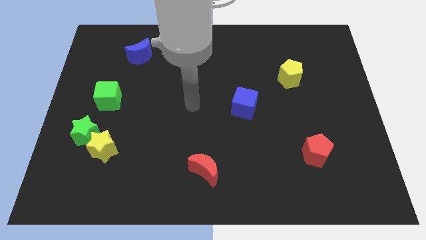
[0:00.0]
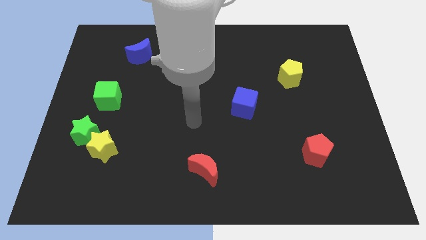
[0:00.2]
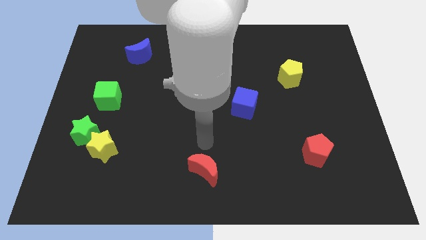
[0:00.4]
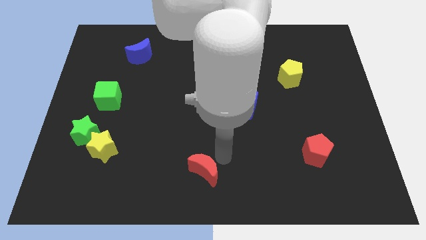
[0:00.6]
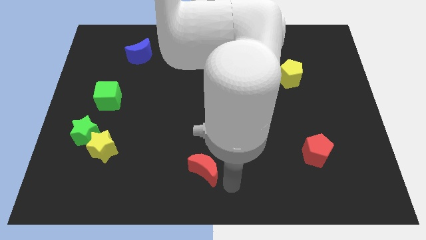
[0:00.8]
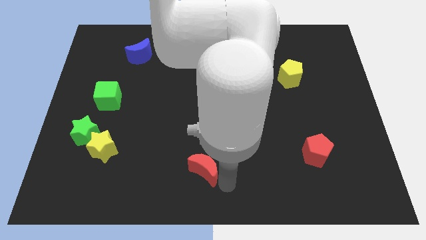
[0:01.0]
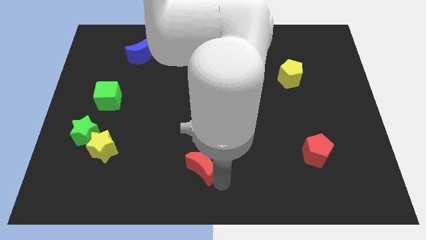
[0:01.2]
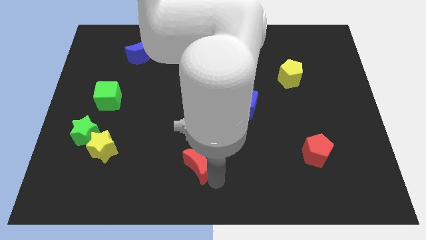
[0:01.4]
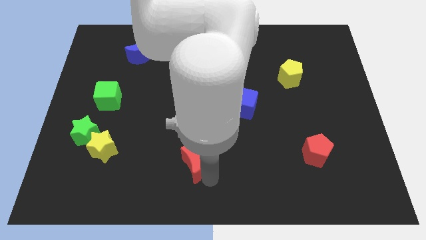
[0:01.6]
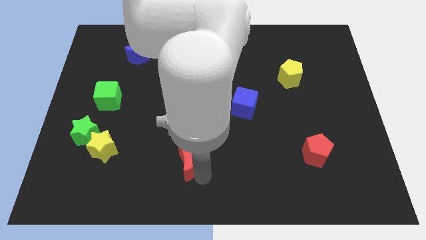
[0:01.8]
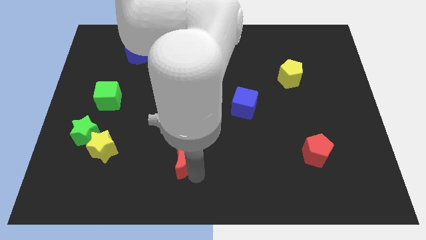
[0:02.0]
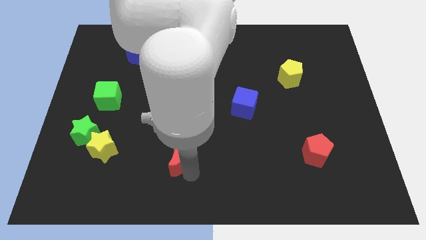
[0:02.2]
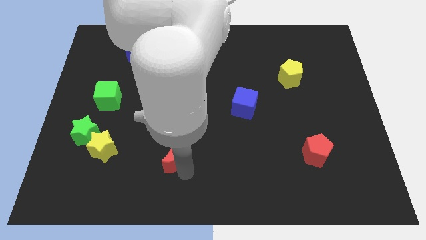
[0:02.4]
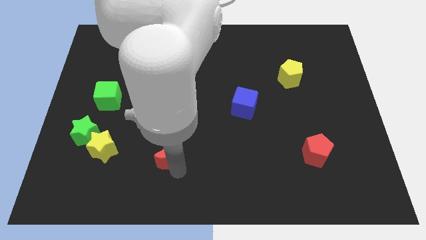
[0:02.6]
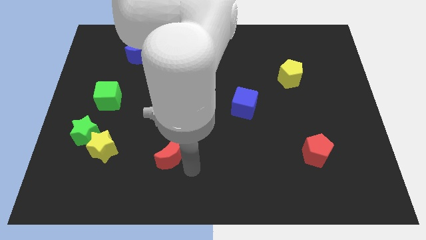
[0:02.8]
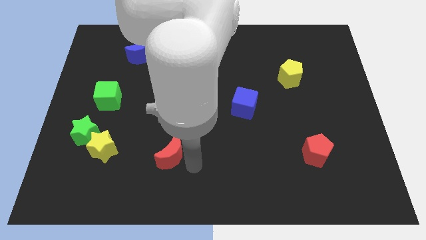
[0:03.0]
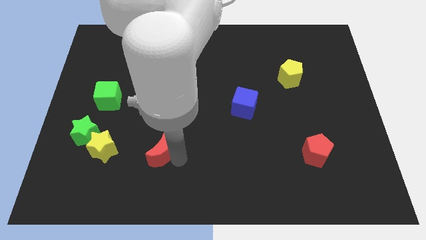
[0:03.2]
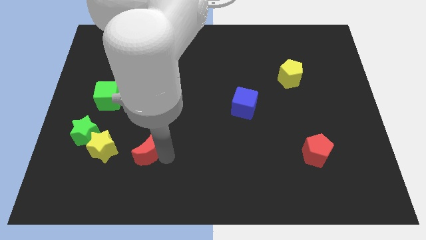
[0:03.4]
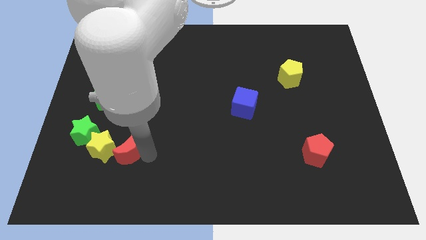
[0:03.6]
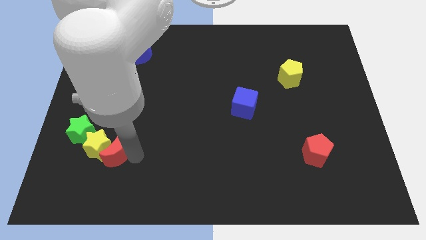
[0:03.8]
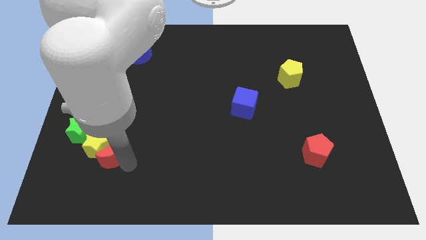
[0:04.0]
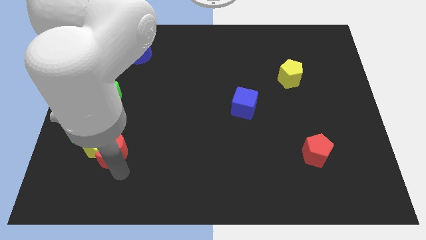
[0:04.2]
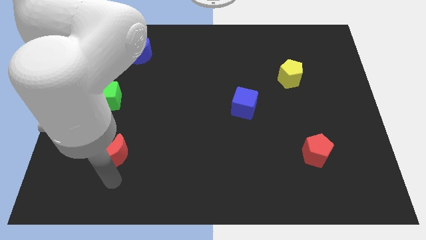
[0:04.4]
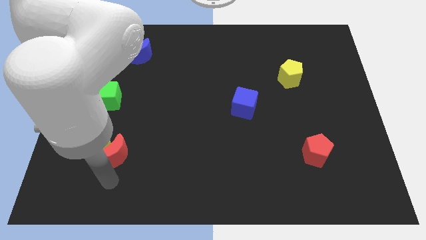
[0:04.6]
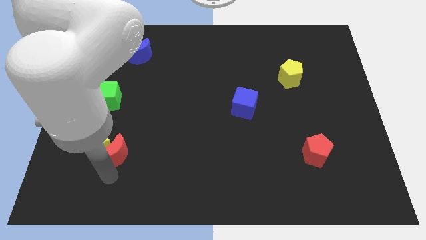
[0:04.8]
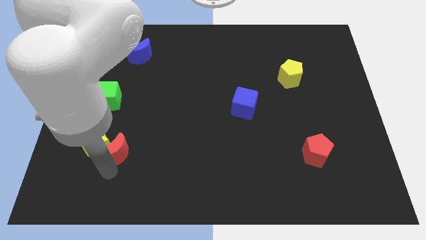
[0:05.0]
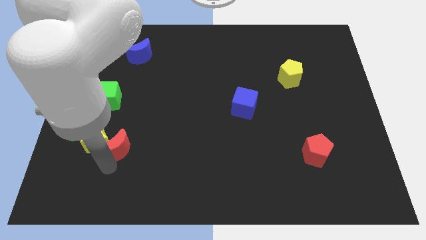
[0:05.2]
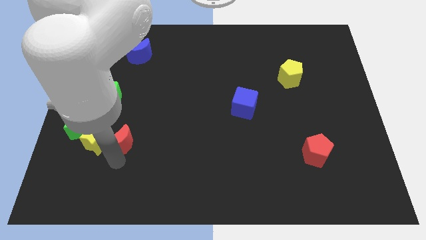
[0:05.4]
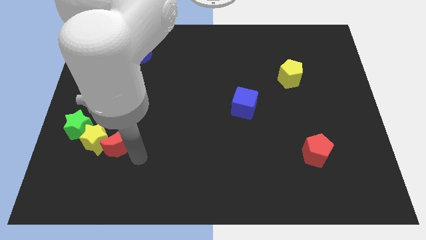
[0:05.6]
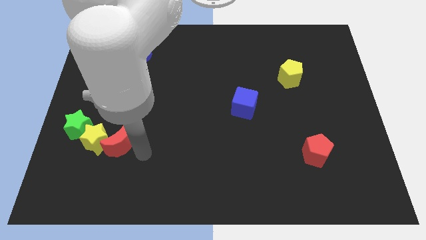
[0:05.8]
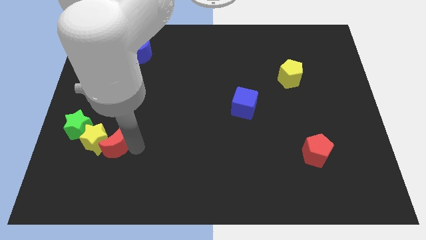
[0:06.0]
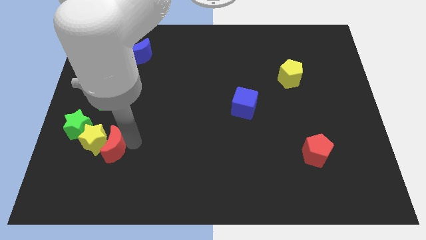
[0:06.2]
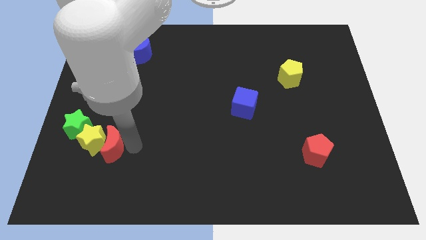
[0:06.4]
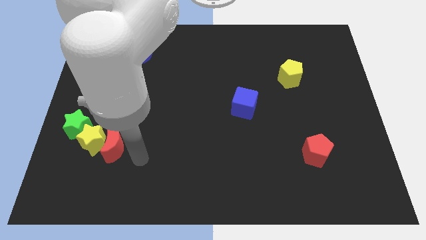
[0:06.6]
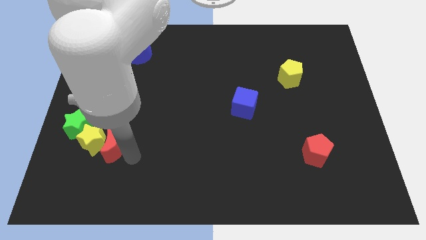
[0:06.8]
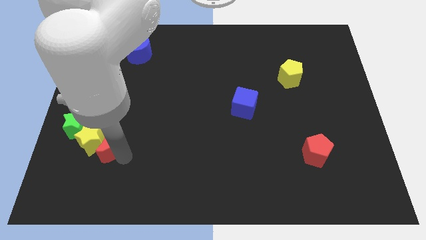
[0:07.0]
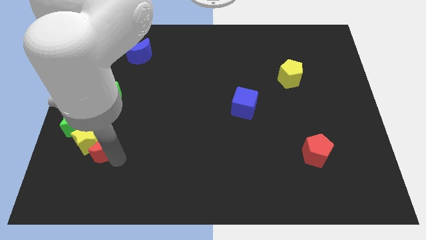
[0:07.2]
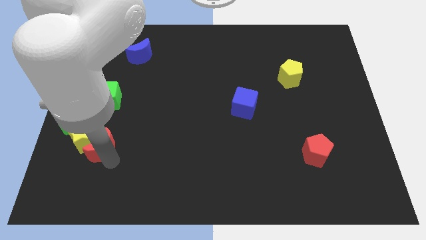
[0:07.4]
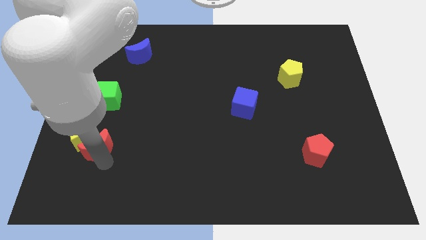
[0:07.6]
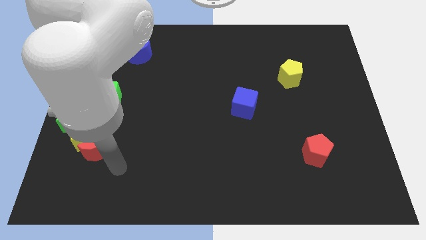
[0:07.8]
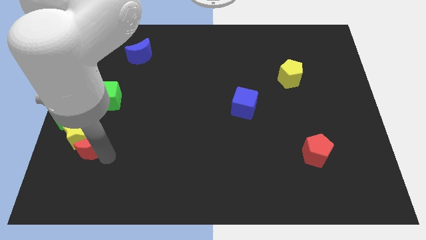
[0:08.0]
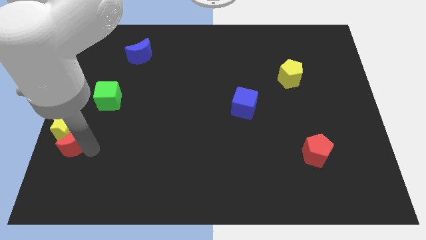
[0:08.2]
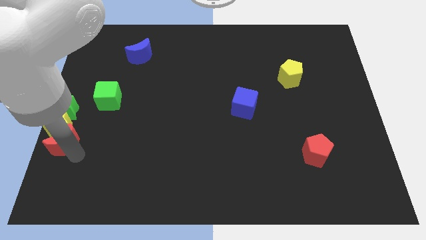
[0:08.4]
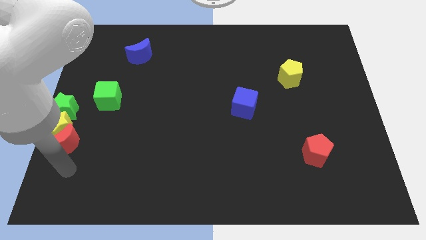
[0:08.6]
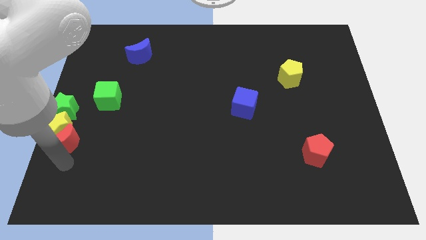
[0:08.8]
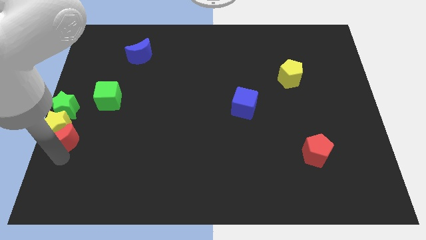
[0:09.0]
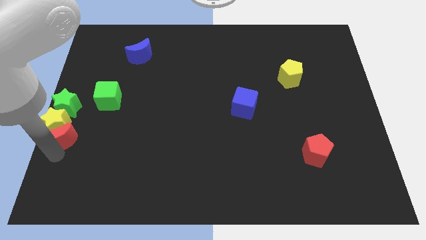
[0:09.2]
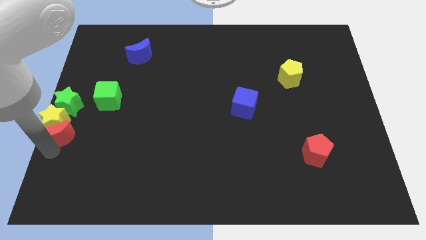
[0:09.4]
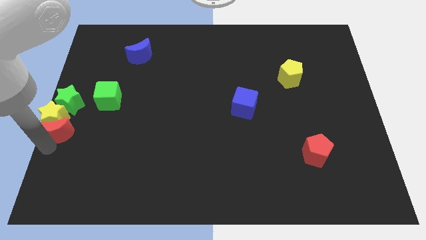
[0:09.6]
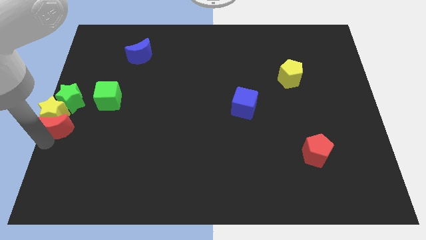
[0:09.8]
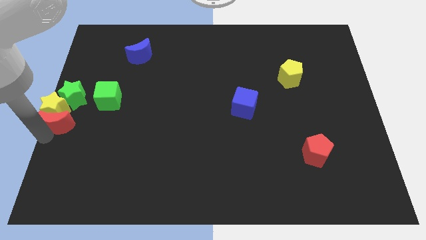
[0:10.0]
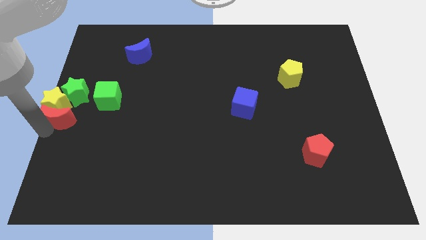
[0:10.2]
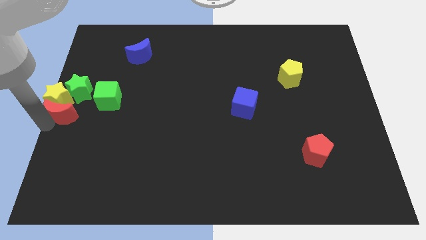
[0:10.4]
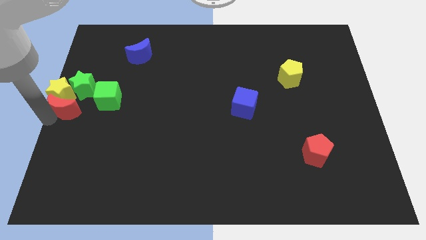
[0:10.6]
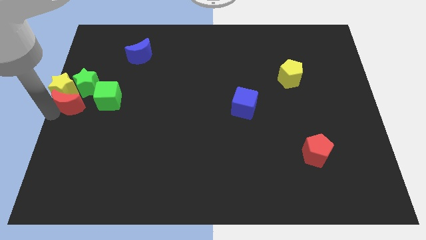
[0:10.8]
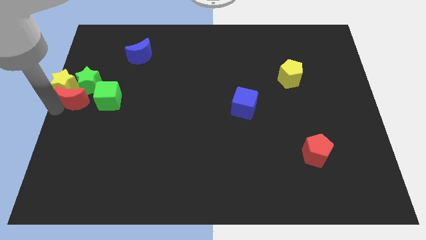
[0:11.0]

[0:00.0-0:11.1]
put the red moon next to the green star
